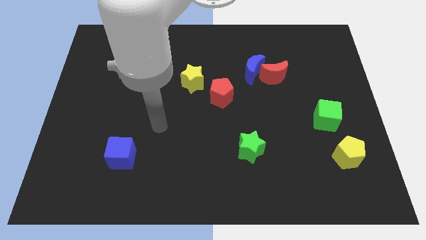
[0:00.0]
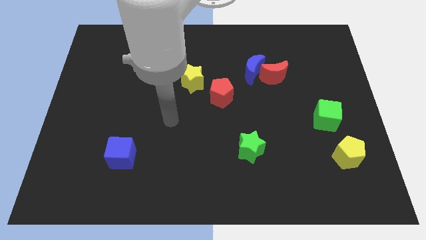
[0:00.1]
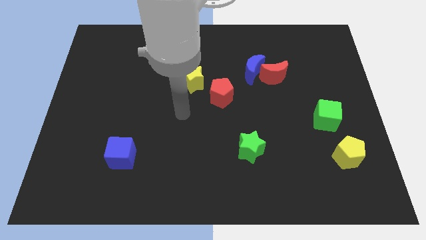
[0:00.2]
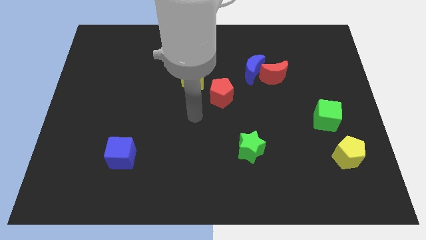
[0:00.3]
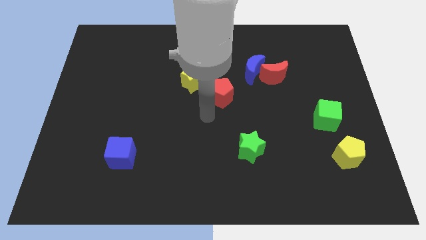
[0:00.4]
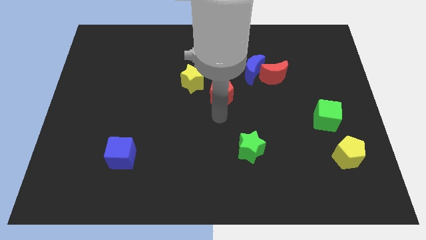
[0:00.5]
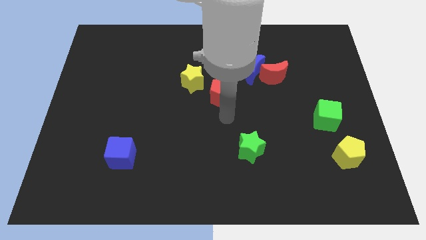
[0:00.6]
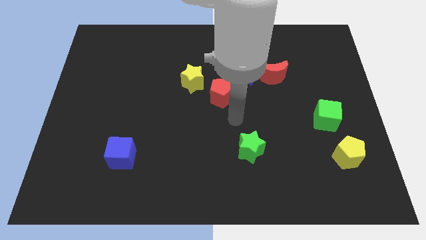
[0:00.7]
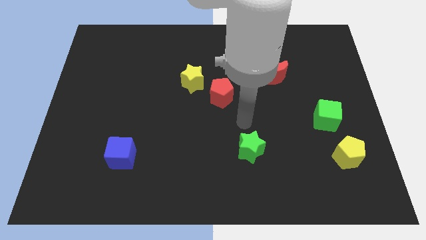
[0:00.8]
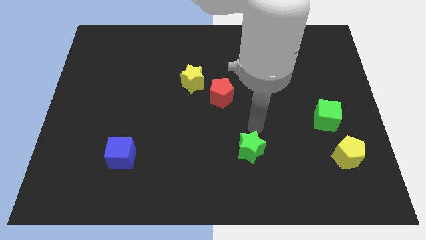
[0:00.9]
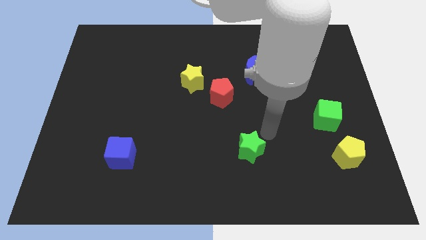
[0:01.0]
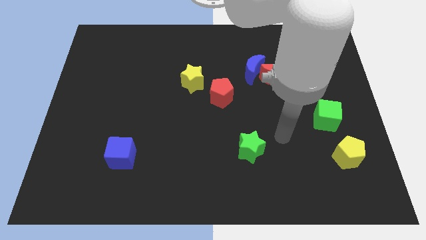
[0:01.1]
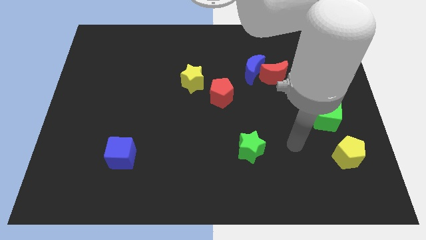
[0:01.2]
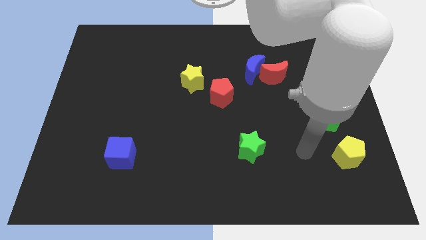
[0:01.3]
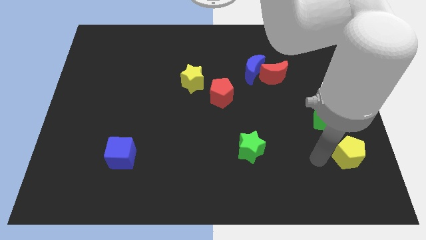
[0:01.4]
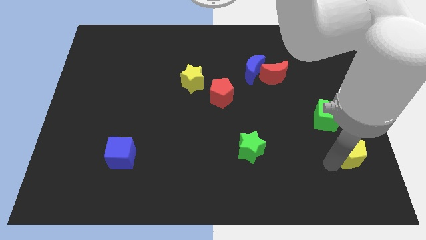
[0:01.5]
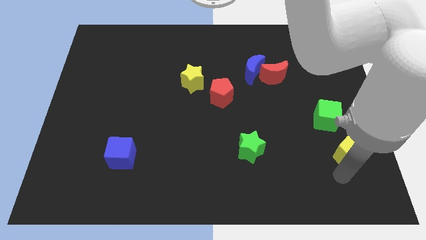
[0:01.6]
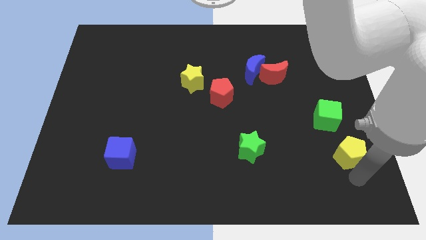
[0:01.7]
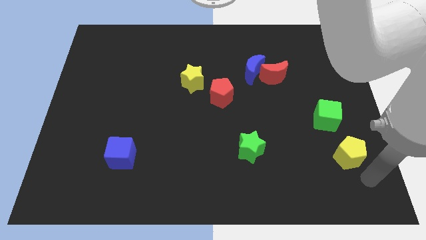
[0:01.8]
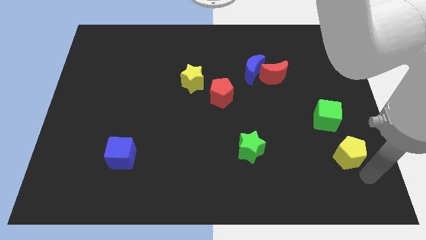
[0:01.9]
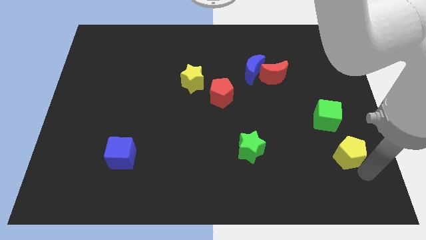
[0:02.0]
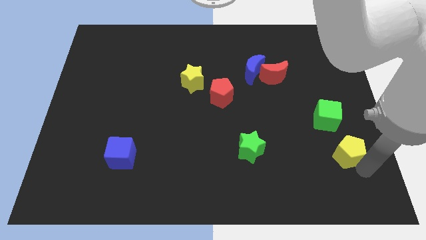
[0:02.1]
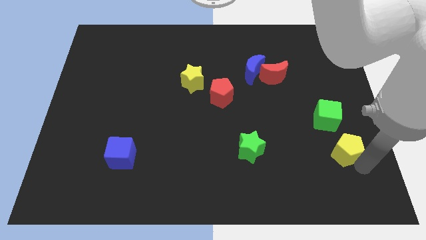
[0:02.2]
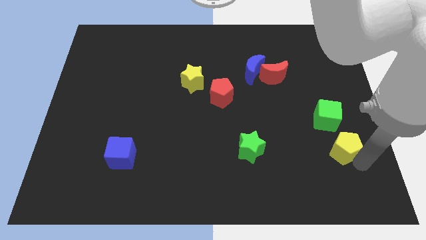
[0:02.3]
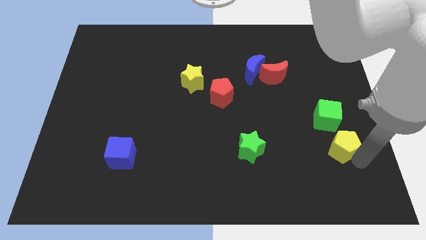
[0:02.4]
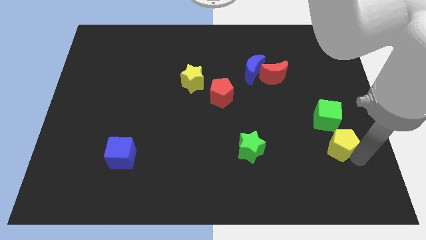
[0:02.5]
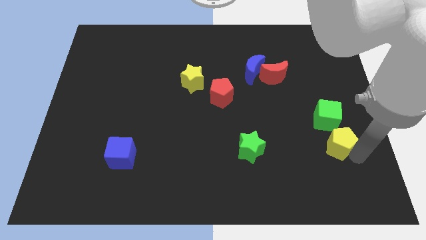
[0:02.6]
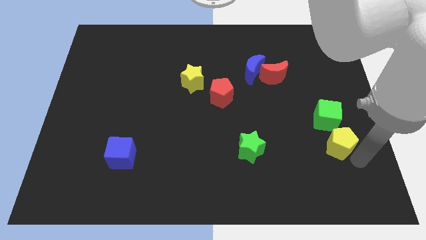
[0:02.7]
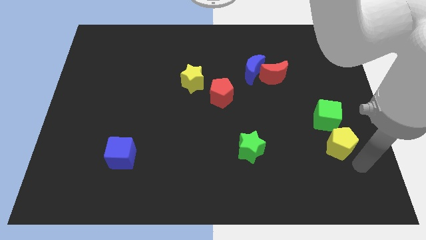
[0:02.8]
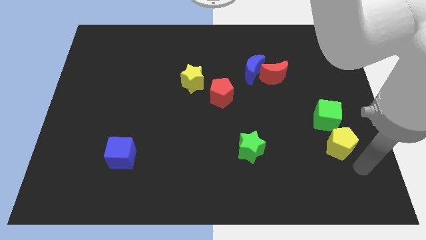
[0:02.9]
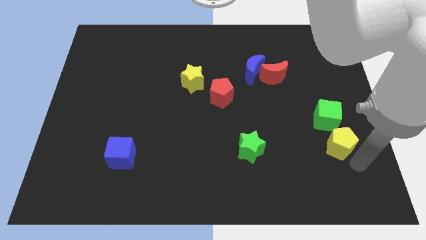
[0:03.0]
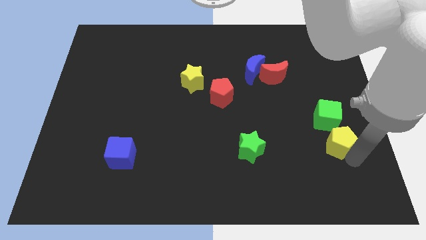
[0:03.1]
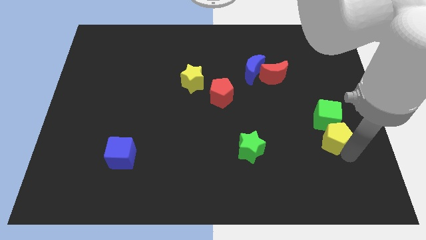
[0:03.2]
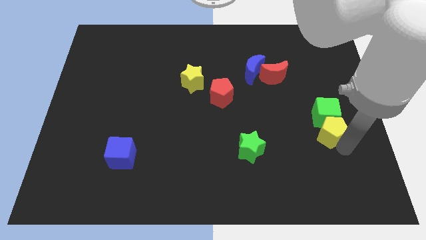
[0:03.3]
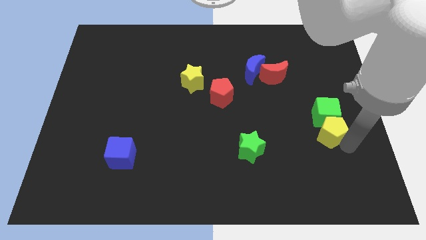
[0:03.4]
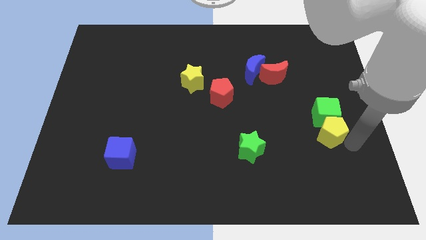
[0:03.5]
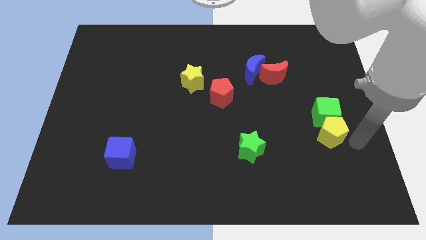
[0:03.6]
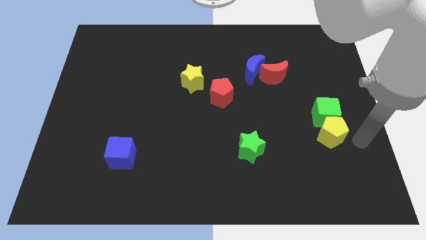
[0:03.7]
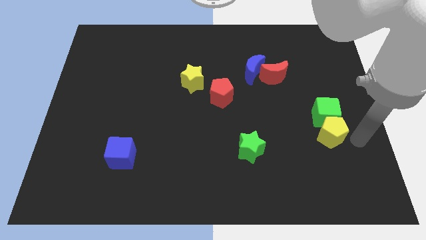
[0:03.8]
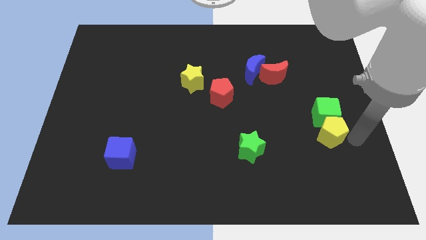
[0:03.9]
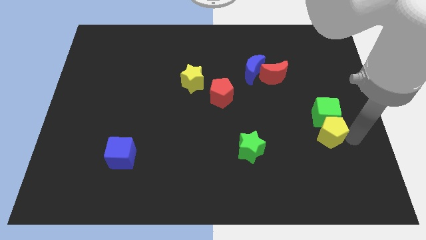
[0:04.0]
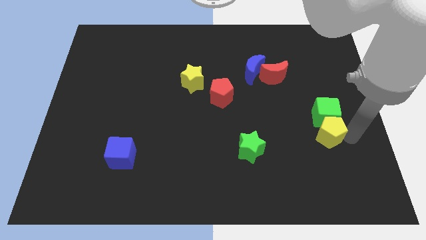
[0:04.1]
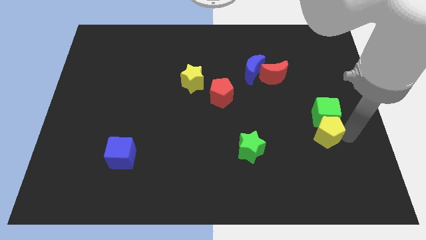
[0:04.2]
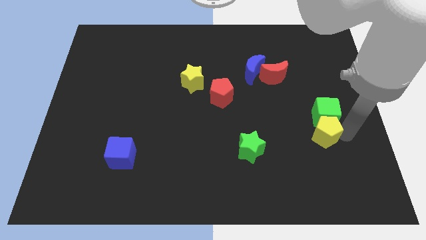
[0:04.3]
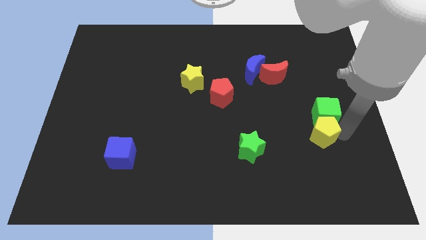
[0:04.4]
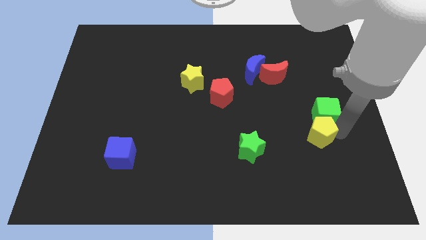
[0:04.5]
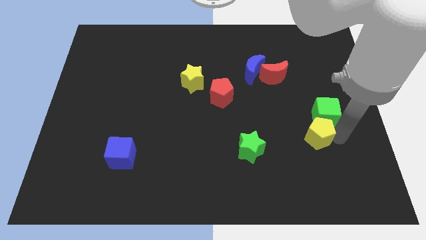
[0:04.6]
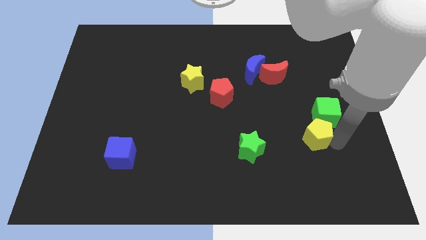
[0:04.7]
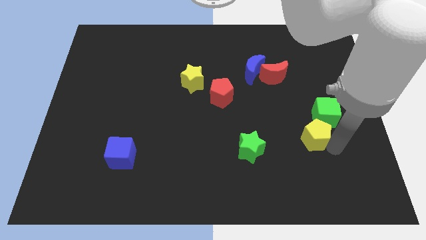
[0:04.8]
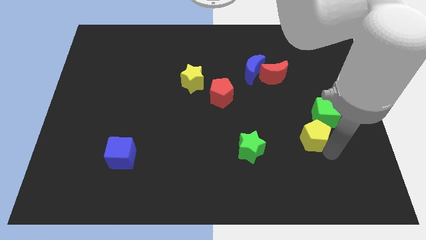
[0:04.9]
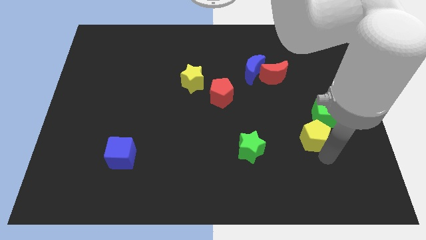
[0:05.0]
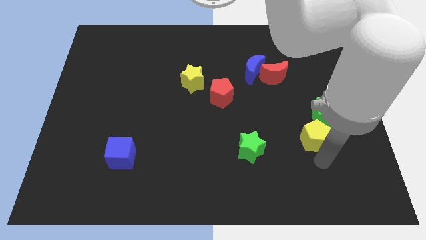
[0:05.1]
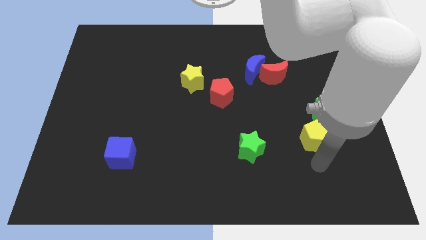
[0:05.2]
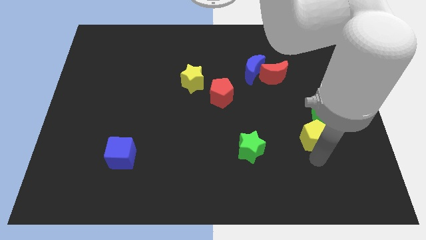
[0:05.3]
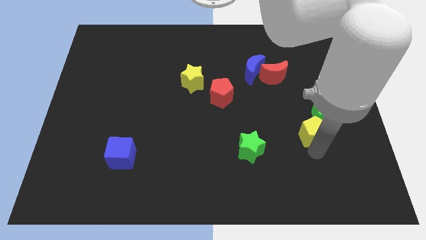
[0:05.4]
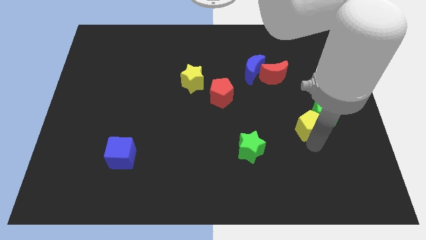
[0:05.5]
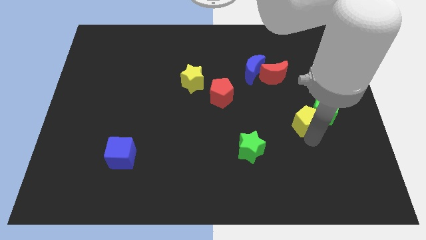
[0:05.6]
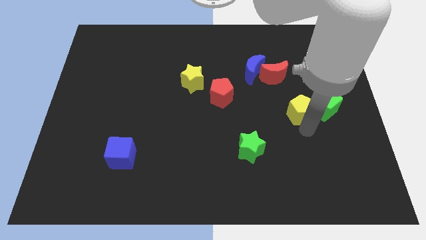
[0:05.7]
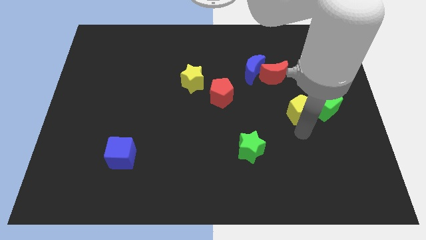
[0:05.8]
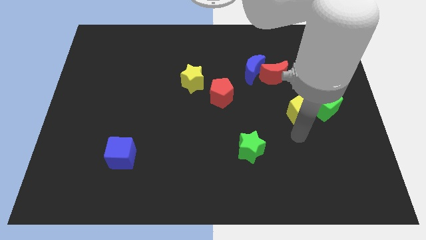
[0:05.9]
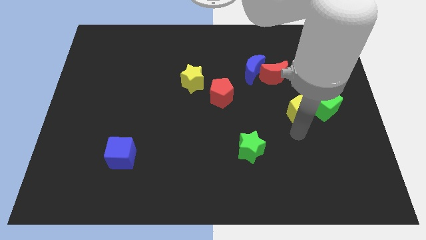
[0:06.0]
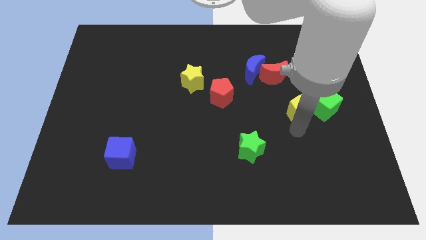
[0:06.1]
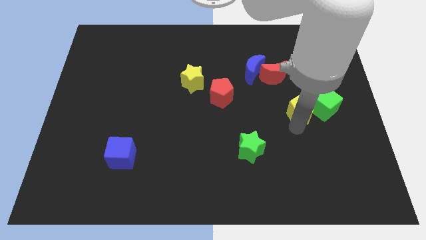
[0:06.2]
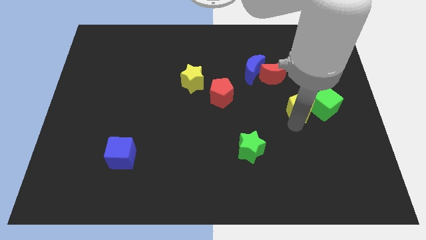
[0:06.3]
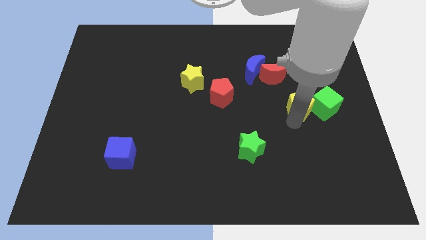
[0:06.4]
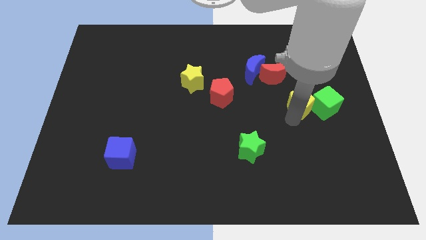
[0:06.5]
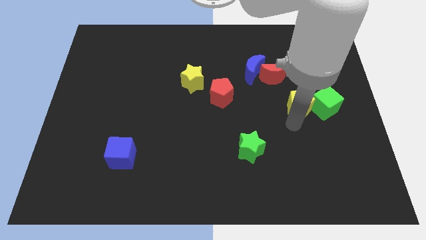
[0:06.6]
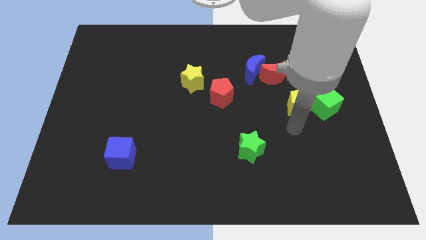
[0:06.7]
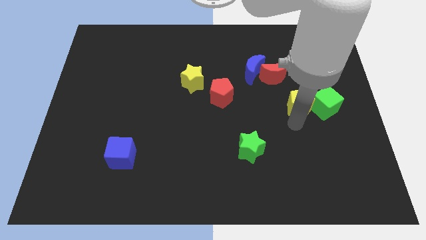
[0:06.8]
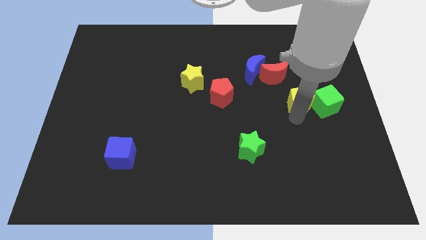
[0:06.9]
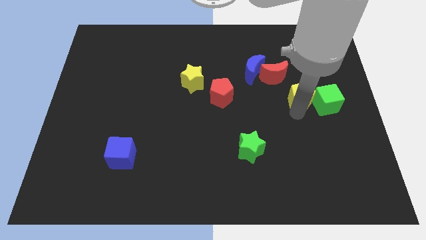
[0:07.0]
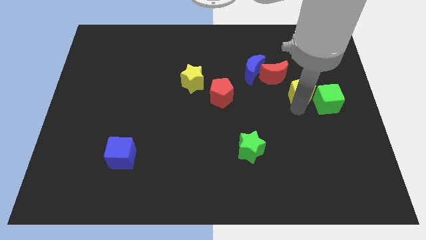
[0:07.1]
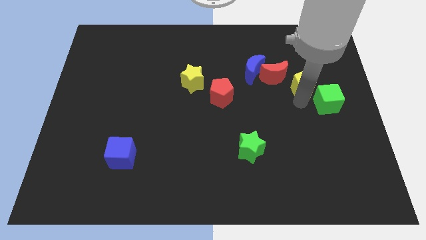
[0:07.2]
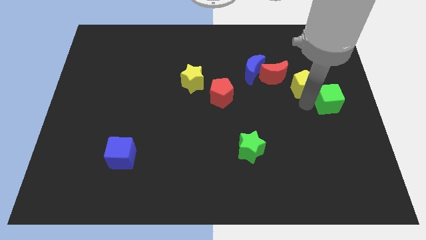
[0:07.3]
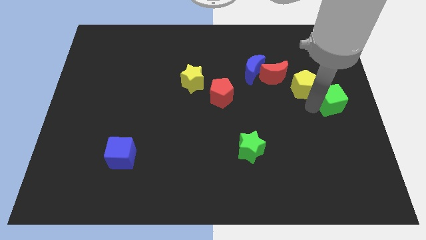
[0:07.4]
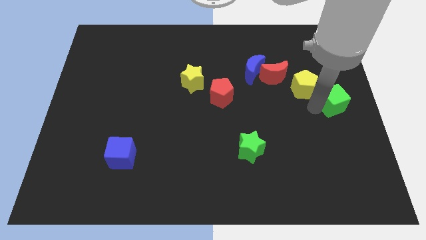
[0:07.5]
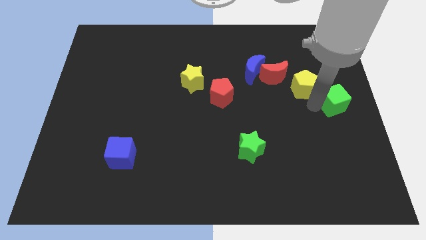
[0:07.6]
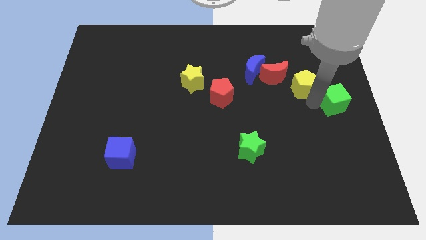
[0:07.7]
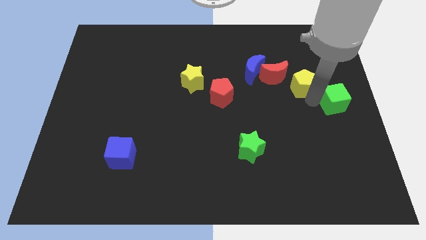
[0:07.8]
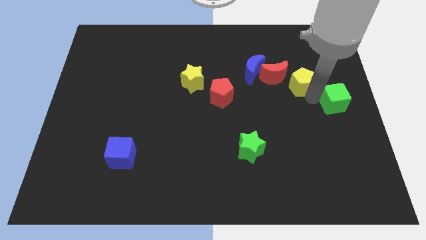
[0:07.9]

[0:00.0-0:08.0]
slide the yellow pentagon right of the blue moon
